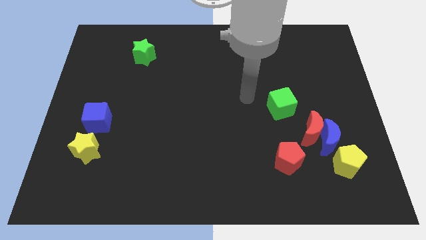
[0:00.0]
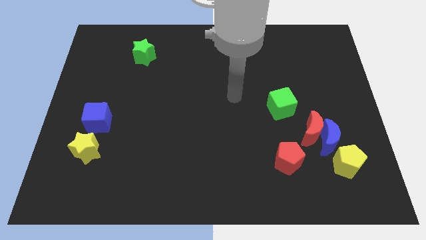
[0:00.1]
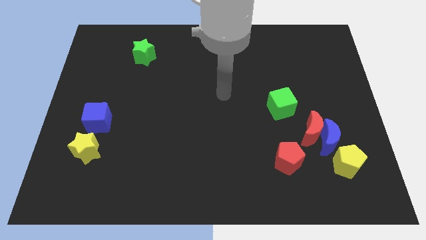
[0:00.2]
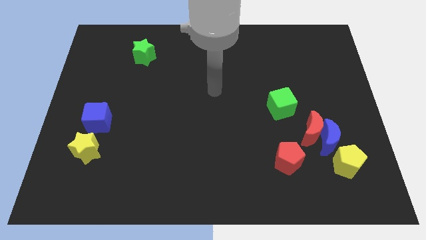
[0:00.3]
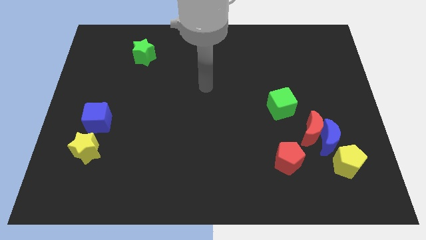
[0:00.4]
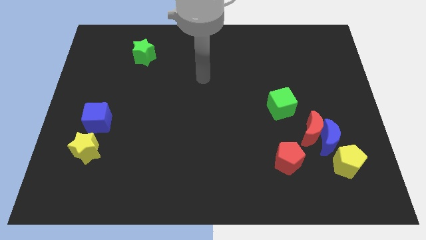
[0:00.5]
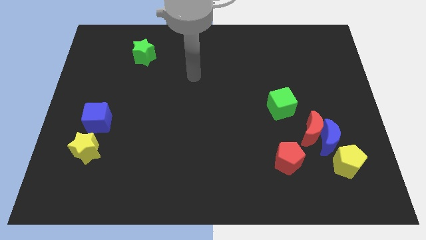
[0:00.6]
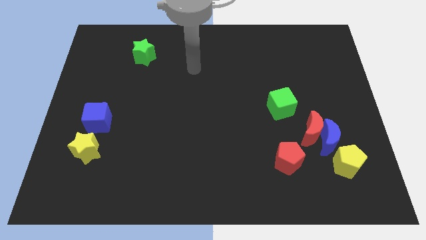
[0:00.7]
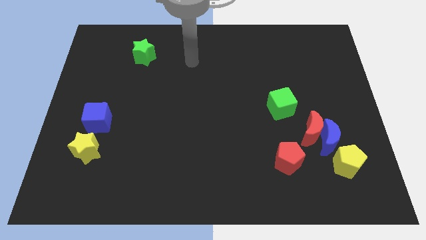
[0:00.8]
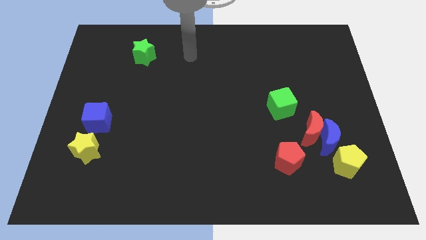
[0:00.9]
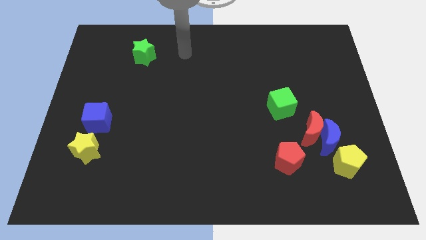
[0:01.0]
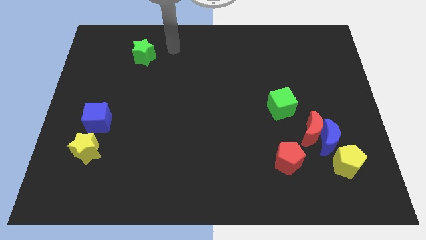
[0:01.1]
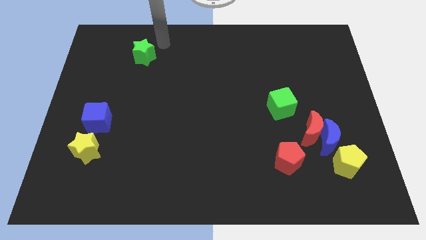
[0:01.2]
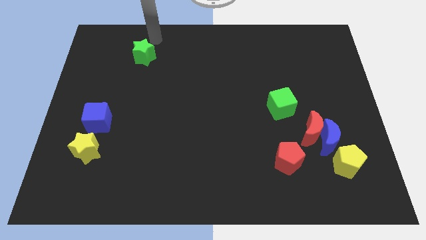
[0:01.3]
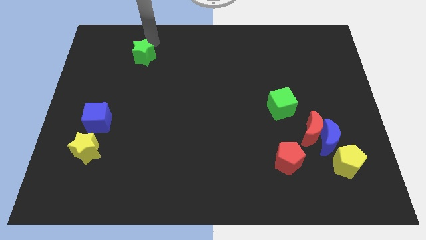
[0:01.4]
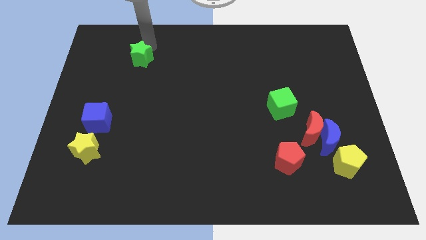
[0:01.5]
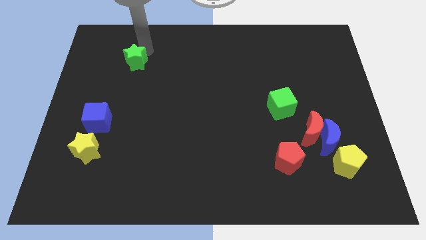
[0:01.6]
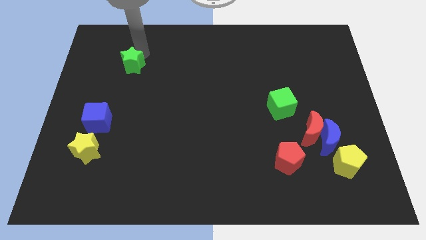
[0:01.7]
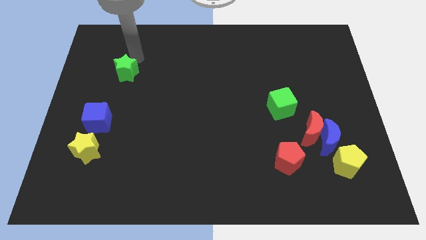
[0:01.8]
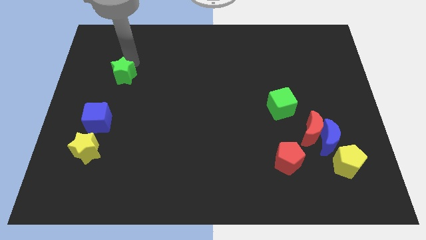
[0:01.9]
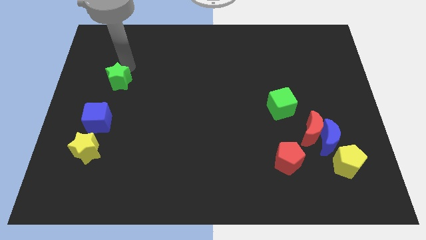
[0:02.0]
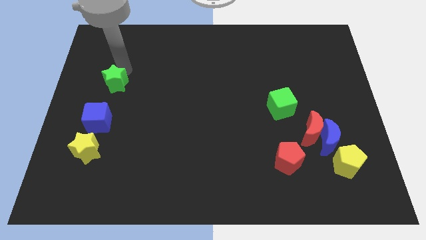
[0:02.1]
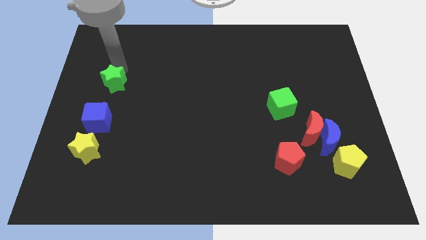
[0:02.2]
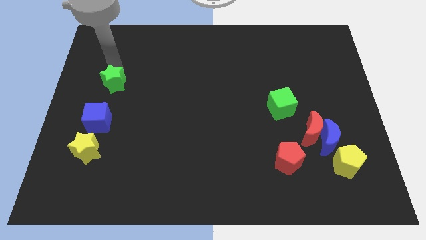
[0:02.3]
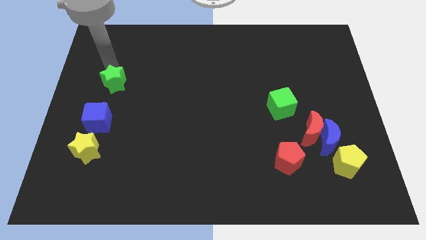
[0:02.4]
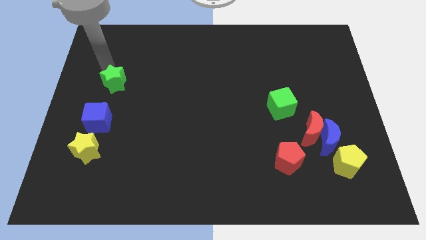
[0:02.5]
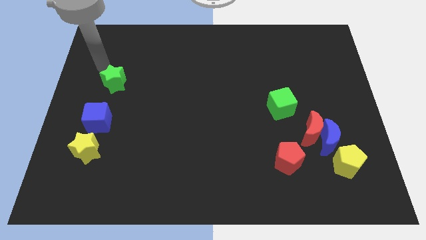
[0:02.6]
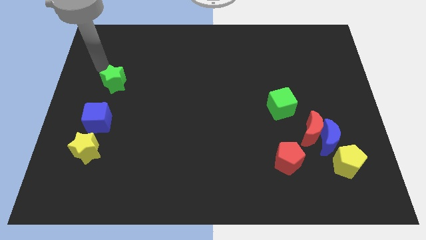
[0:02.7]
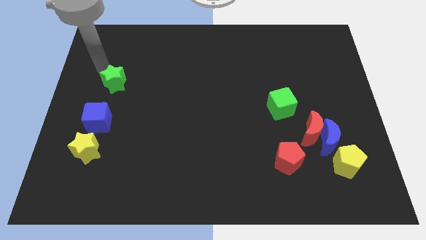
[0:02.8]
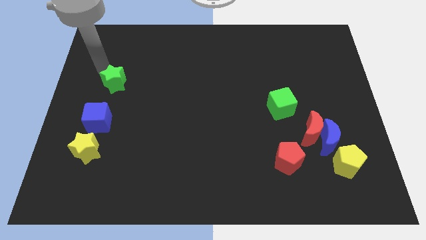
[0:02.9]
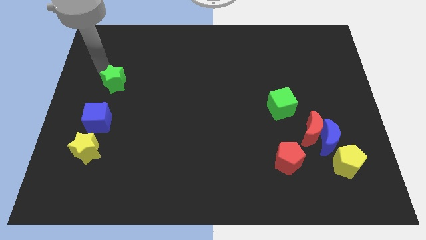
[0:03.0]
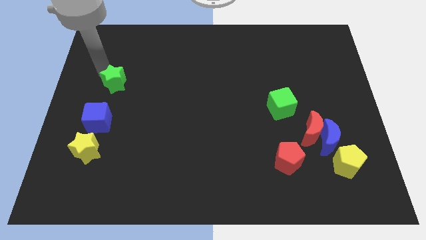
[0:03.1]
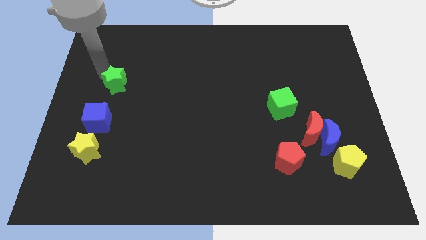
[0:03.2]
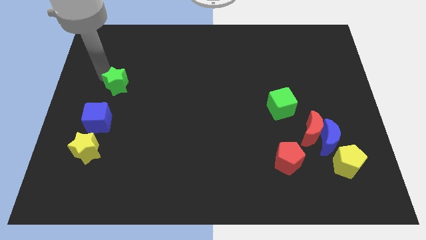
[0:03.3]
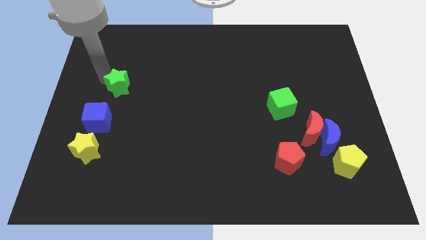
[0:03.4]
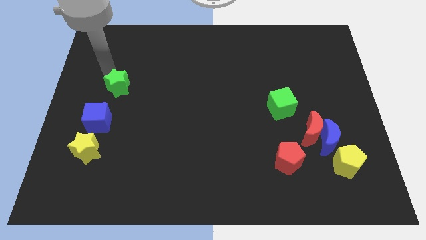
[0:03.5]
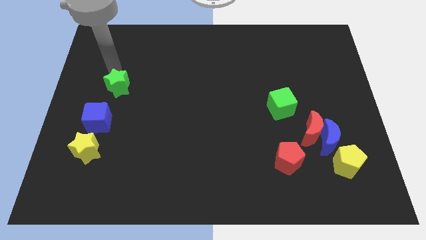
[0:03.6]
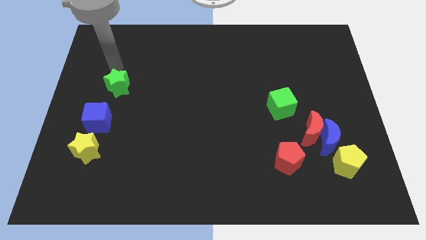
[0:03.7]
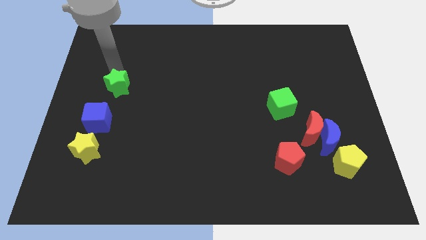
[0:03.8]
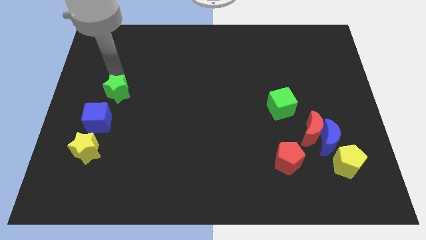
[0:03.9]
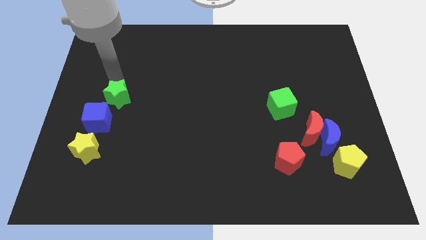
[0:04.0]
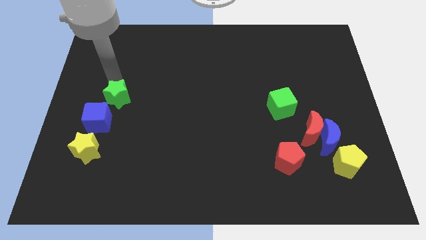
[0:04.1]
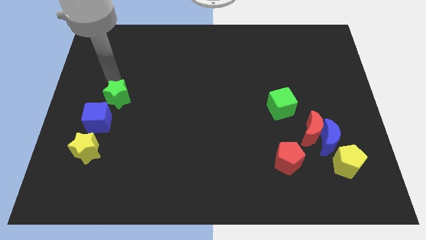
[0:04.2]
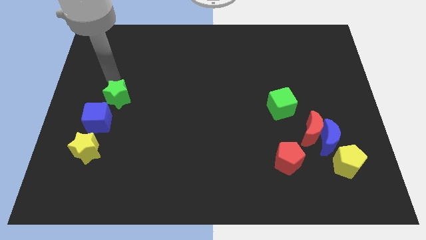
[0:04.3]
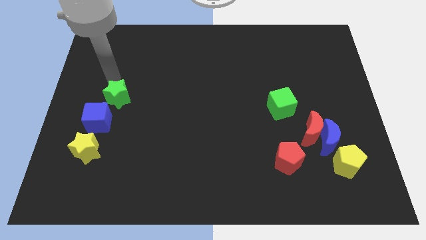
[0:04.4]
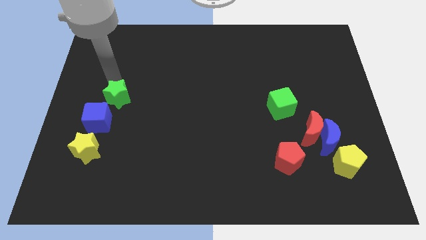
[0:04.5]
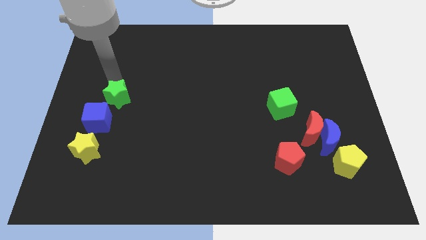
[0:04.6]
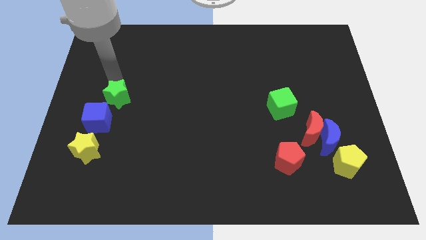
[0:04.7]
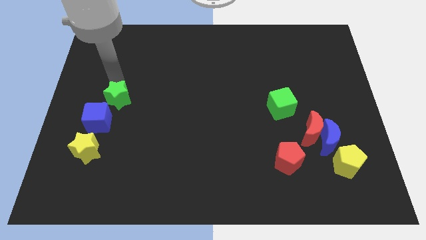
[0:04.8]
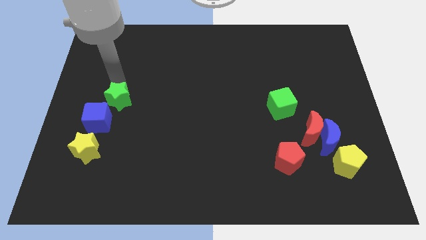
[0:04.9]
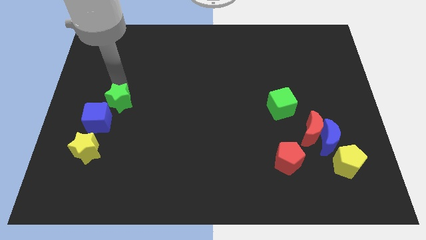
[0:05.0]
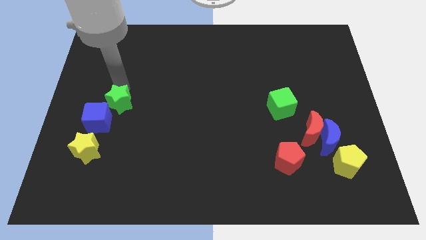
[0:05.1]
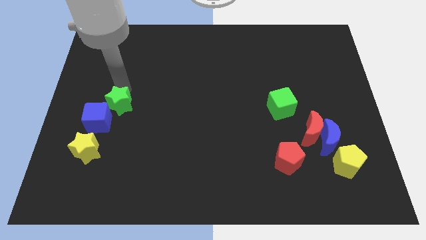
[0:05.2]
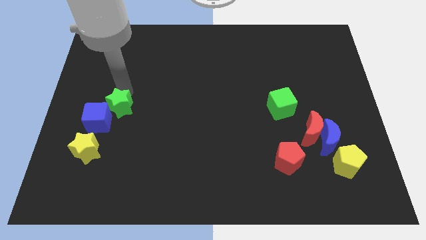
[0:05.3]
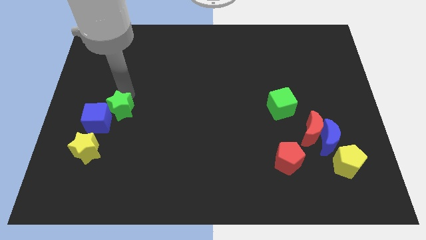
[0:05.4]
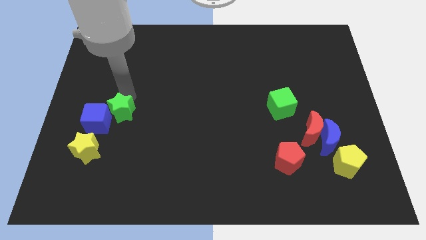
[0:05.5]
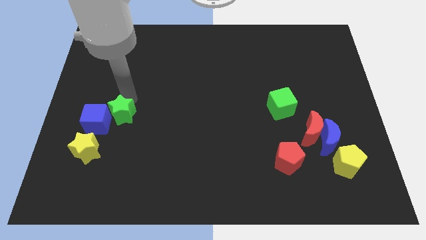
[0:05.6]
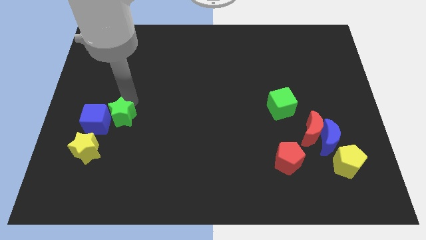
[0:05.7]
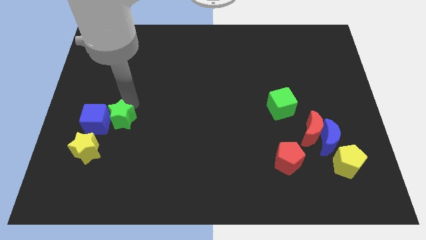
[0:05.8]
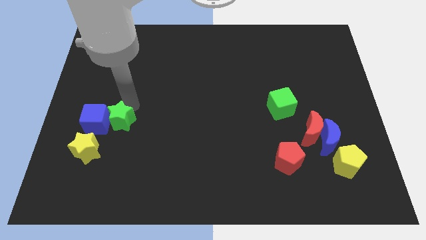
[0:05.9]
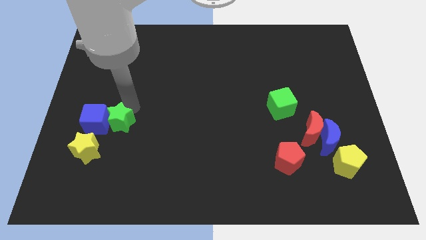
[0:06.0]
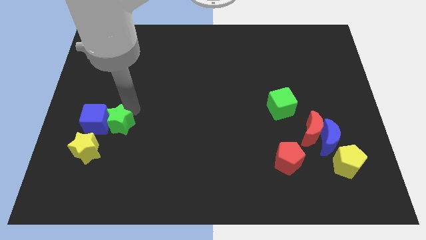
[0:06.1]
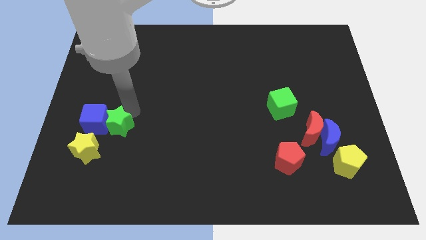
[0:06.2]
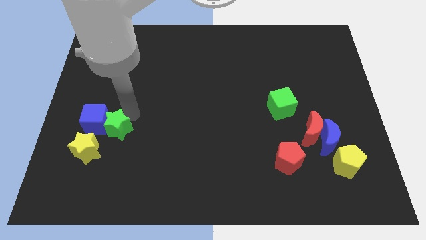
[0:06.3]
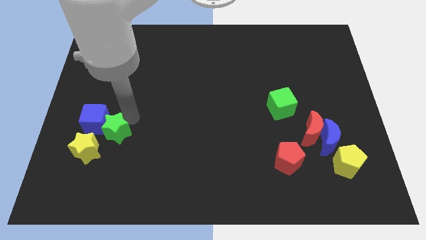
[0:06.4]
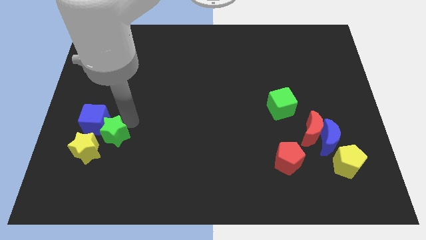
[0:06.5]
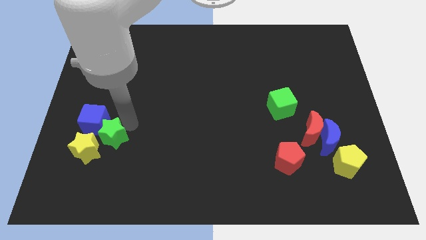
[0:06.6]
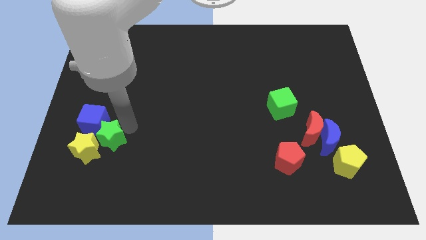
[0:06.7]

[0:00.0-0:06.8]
slide the green star close to the yellow star
